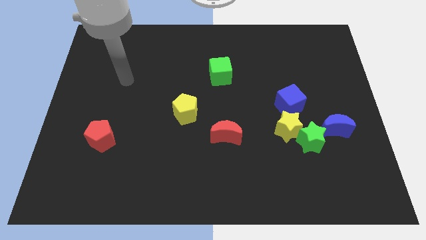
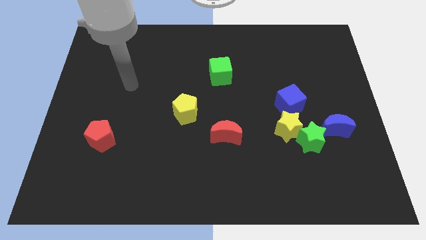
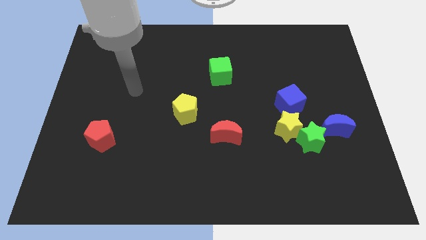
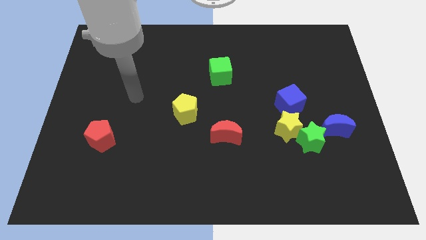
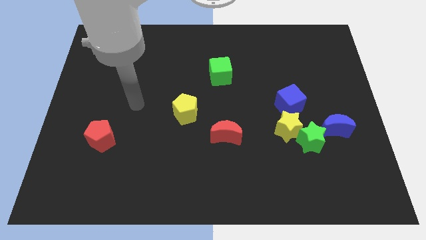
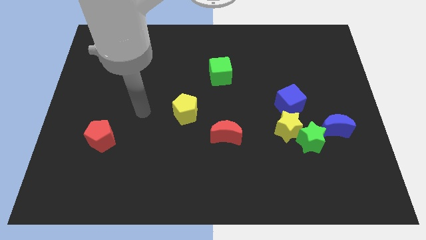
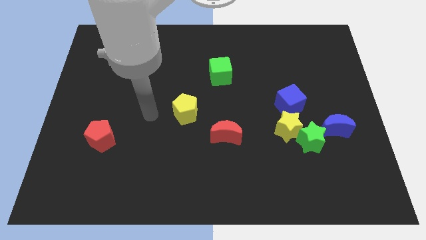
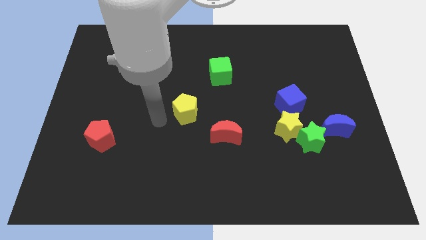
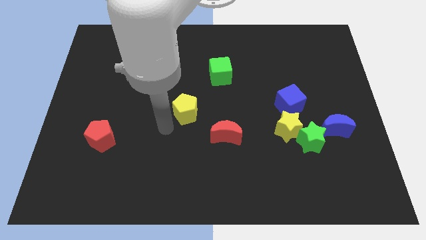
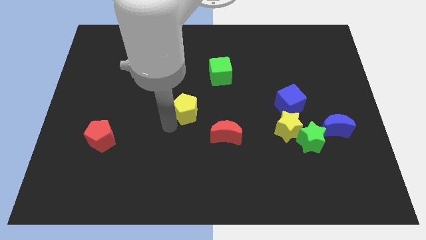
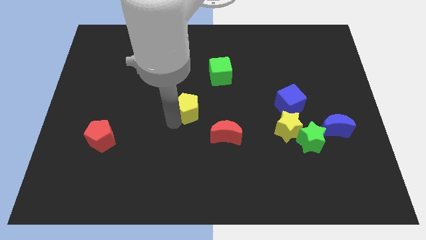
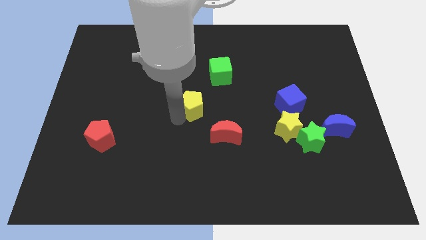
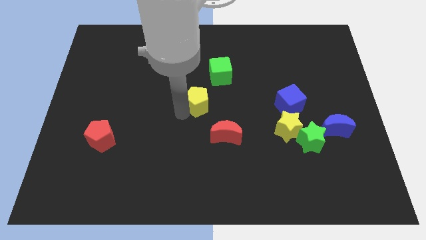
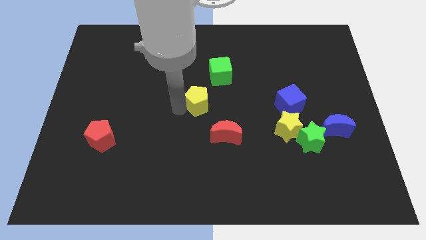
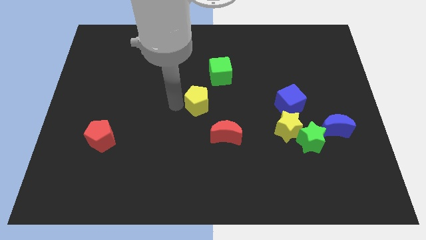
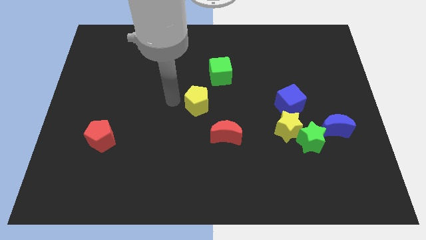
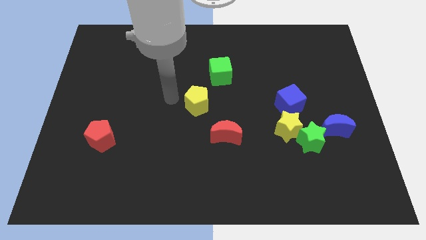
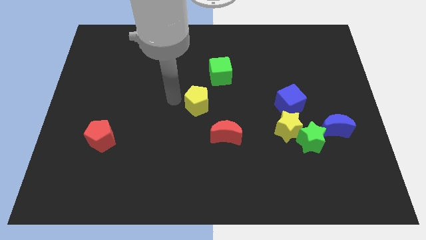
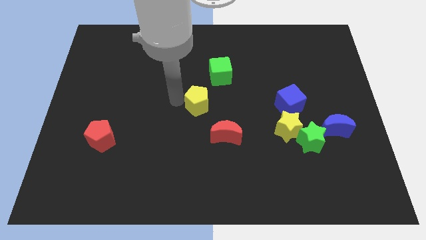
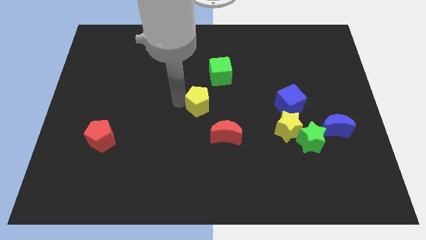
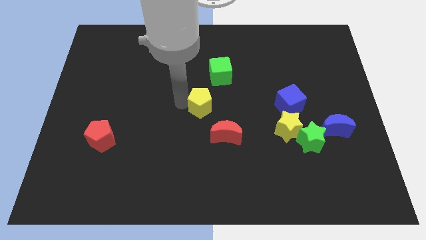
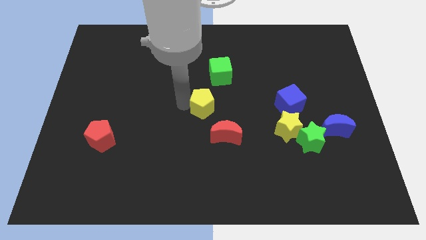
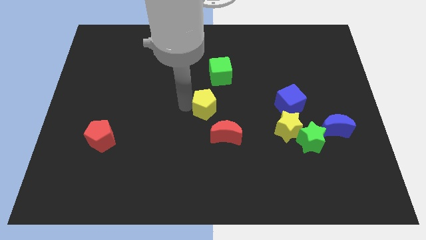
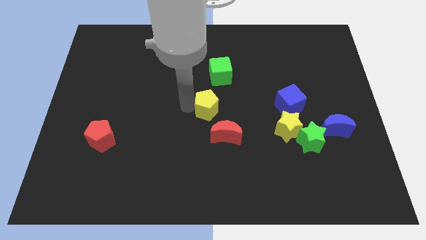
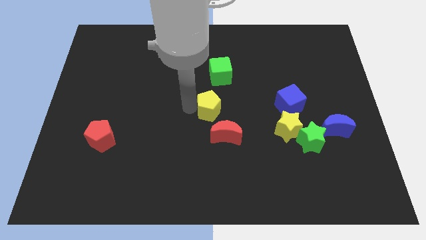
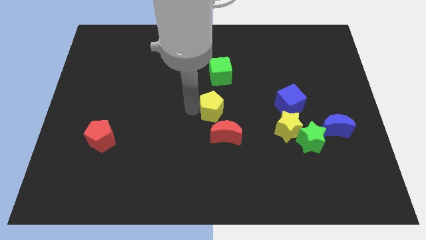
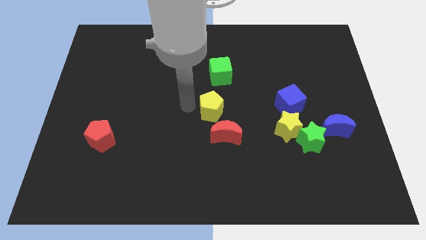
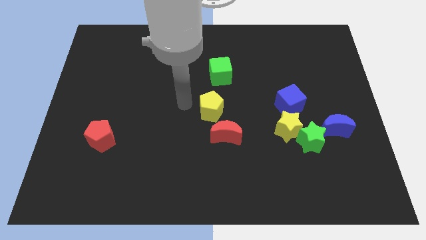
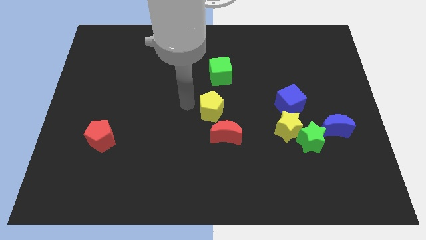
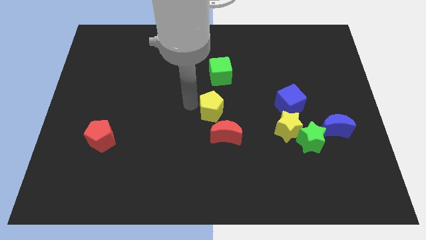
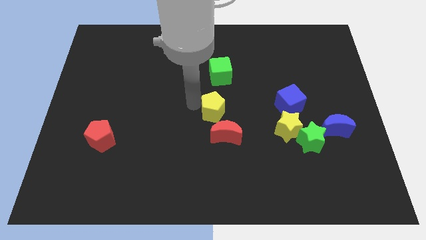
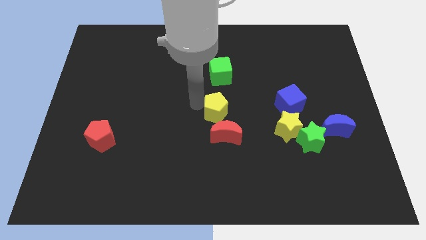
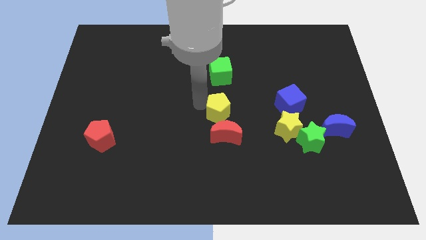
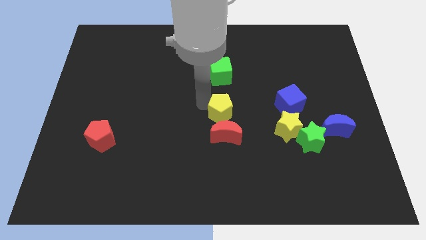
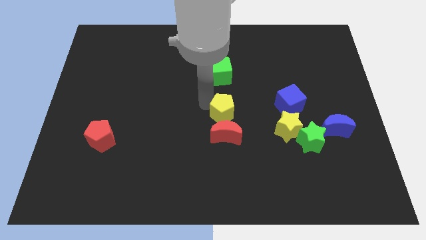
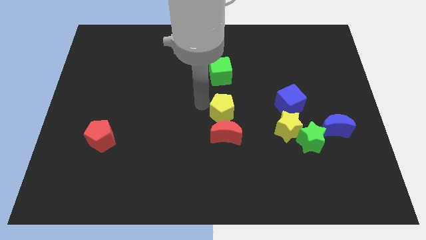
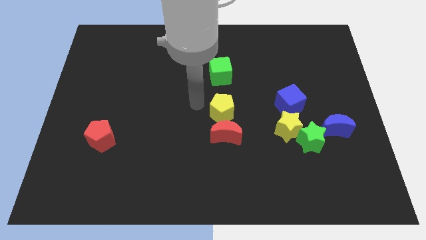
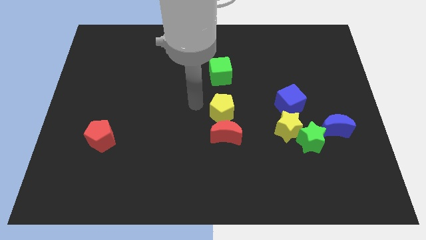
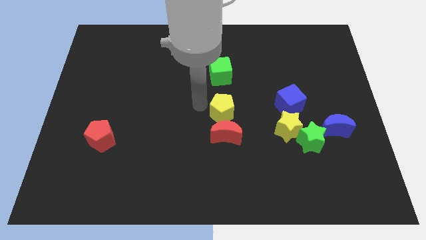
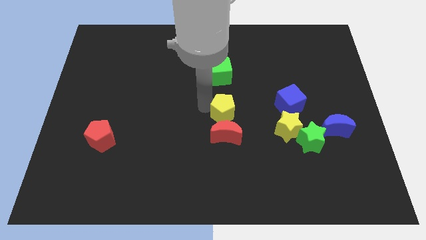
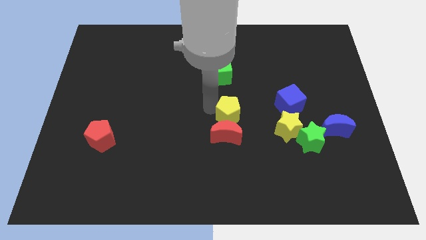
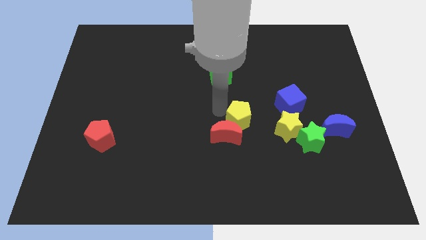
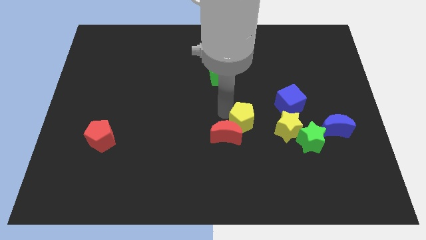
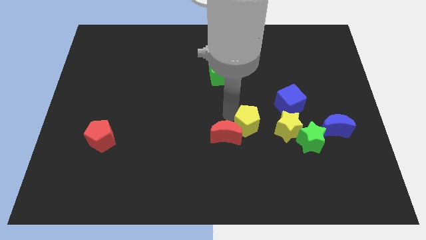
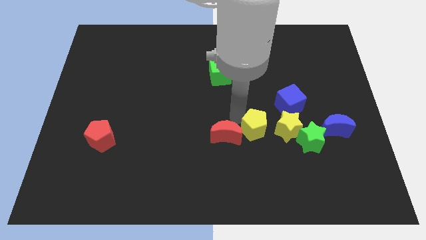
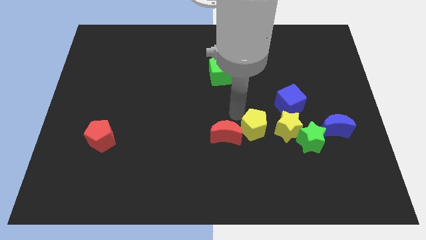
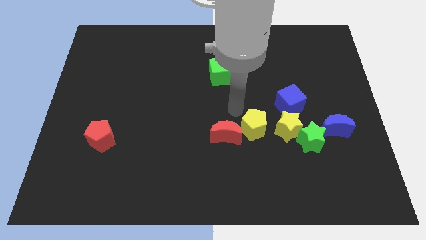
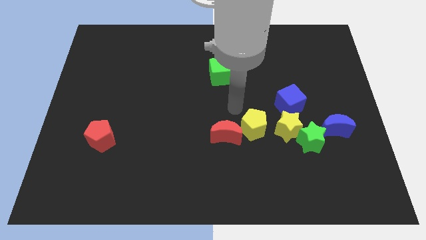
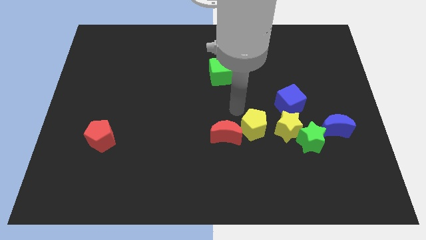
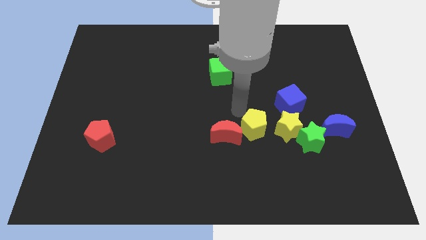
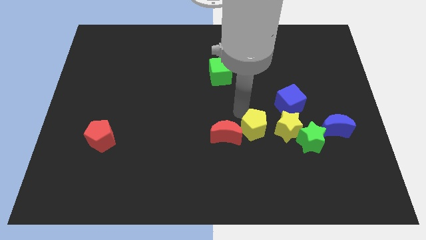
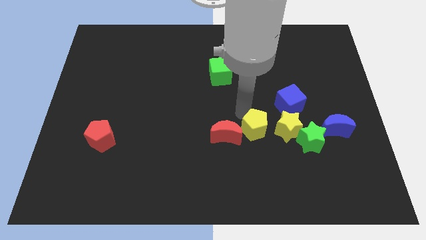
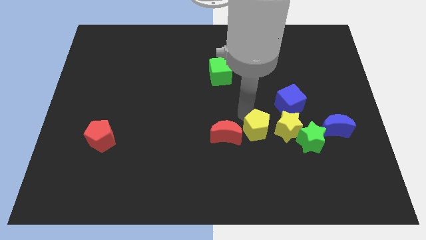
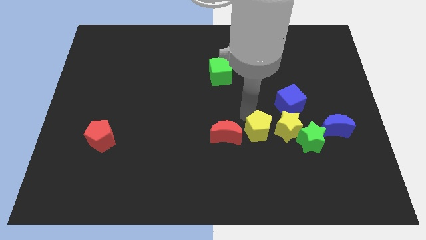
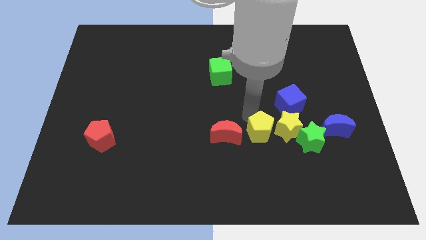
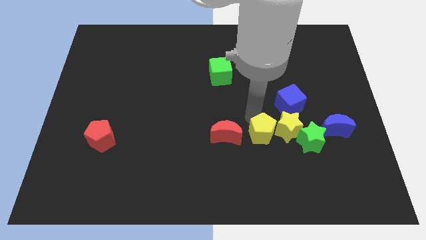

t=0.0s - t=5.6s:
put the yellow pentagon close to the yellow star

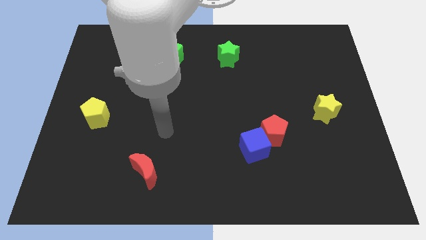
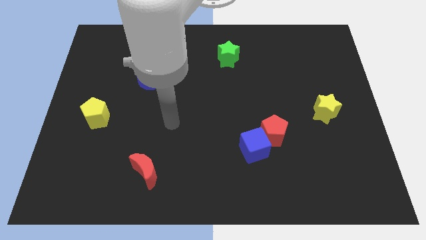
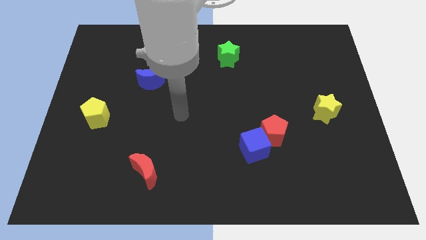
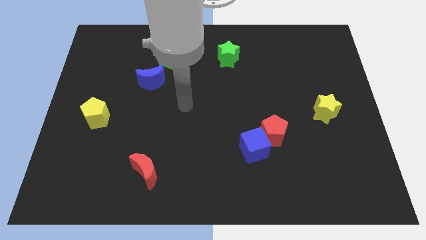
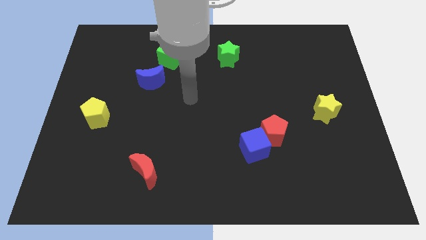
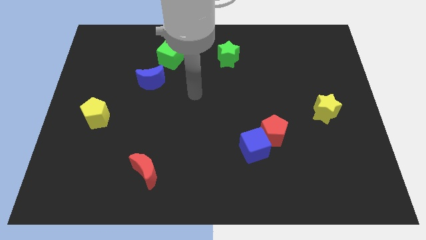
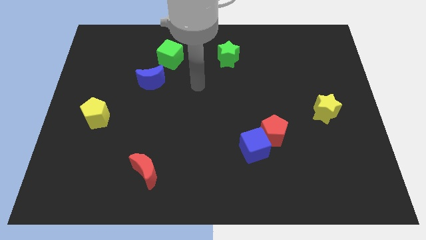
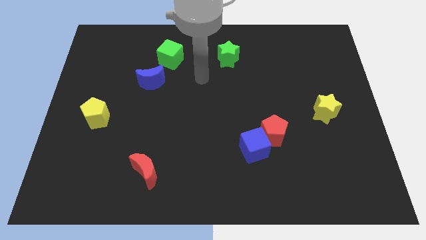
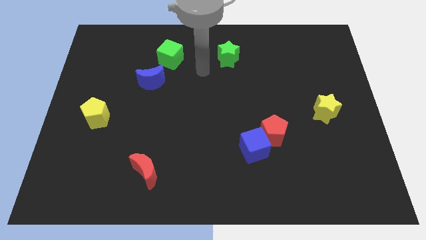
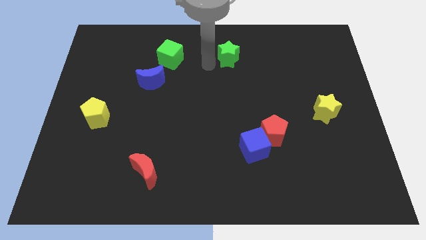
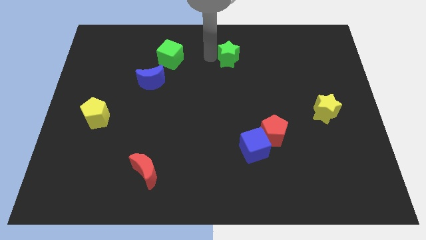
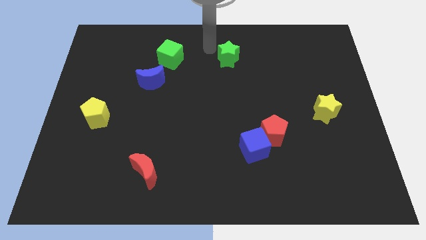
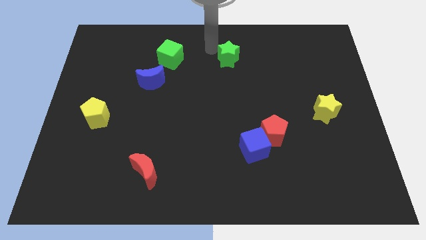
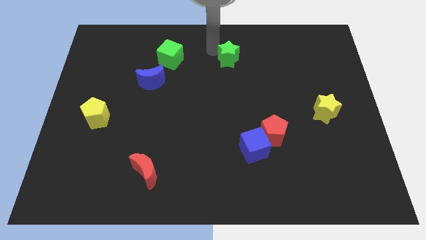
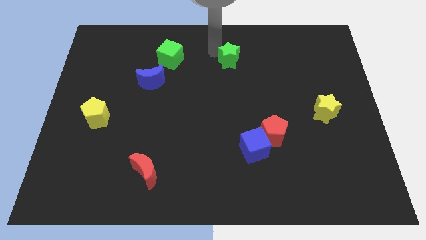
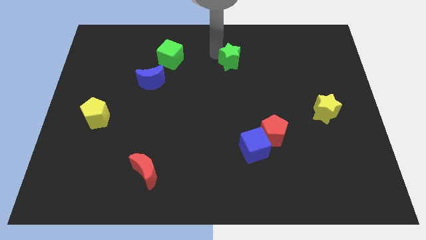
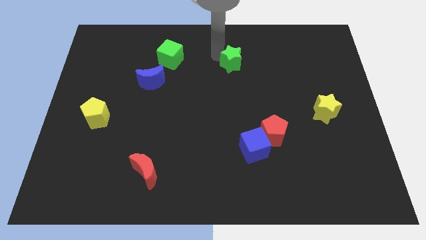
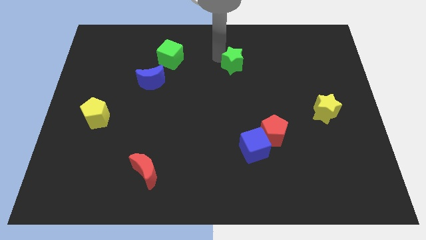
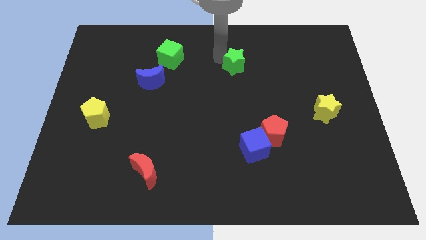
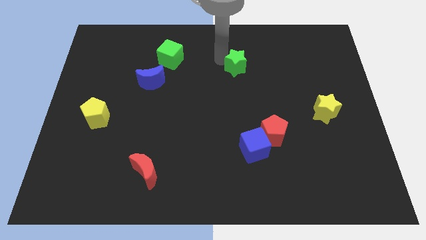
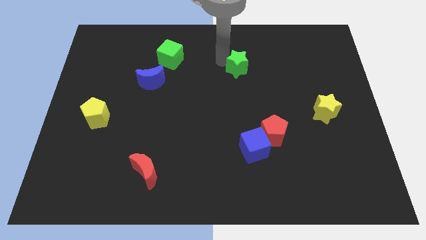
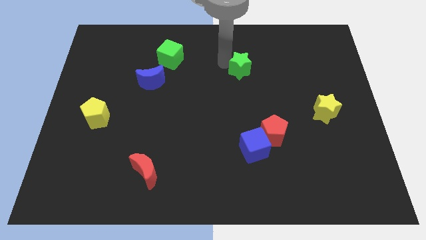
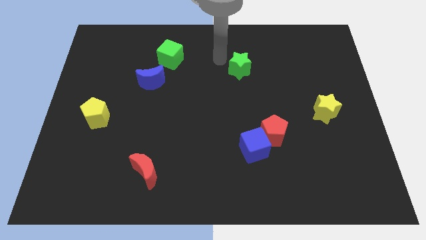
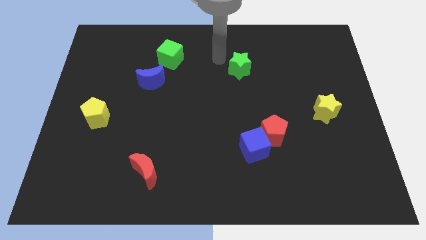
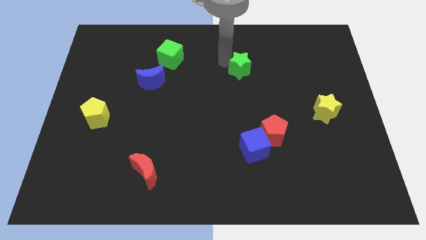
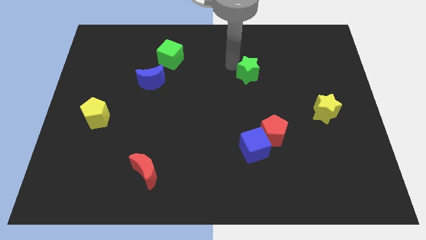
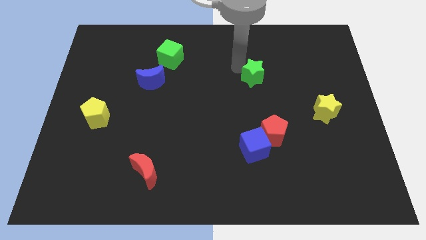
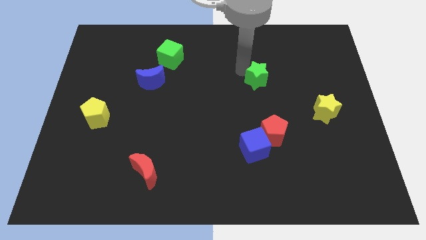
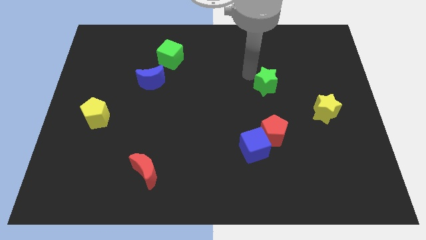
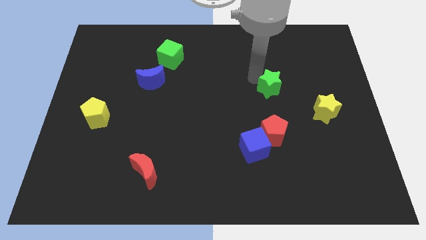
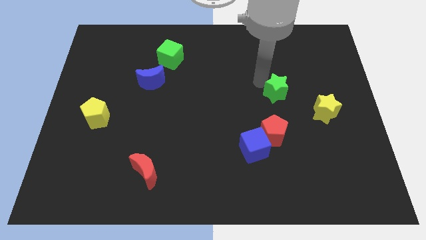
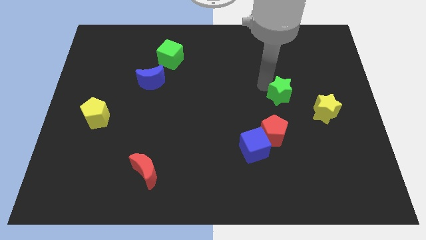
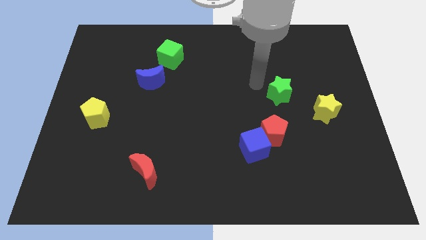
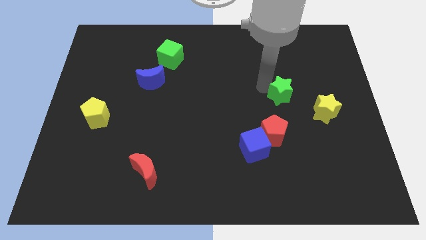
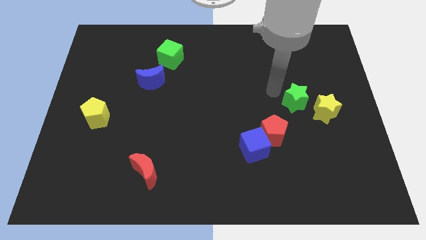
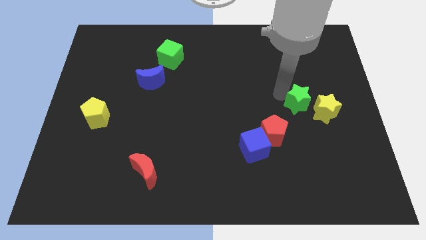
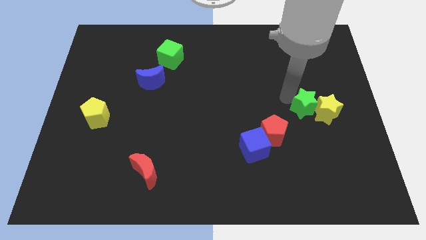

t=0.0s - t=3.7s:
slide the green star next to the yellow star
